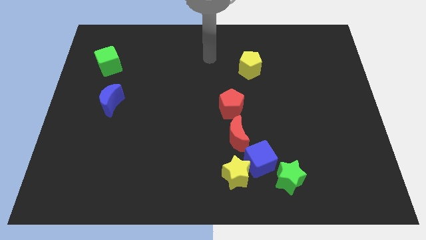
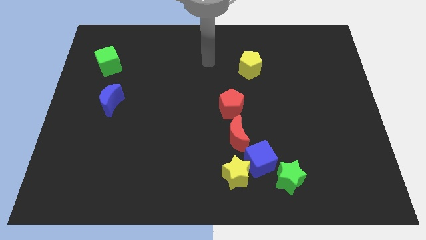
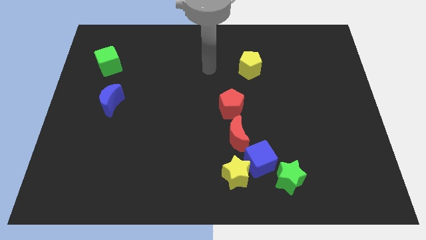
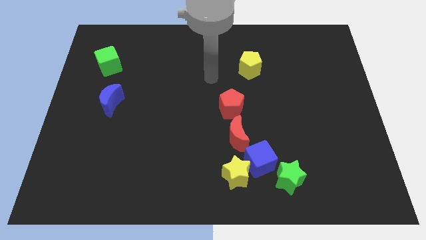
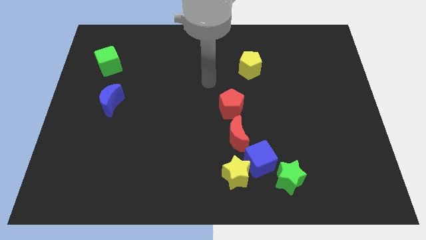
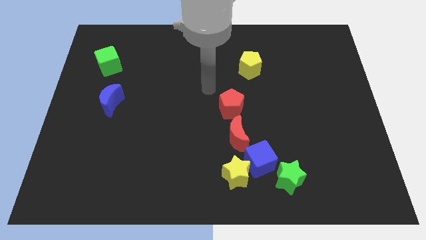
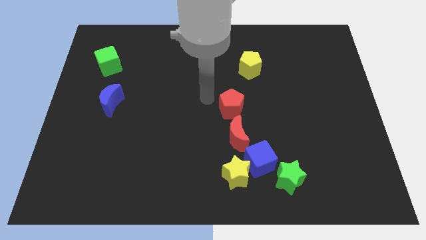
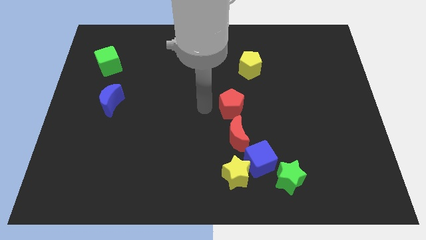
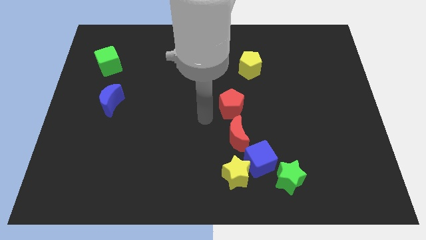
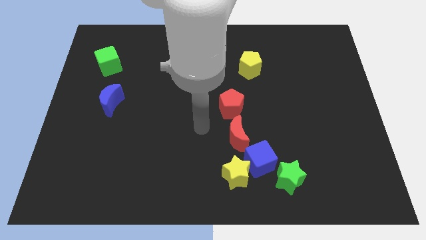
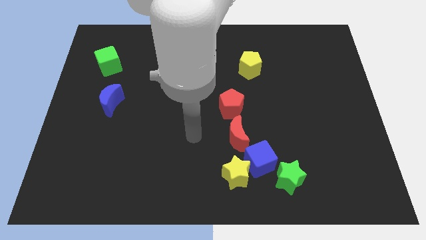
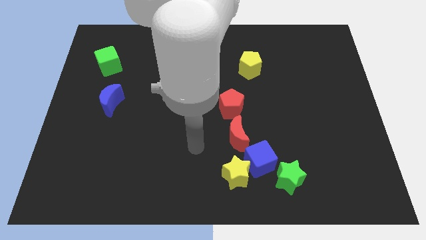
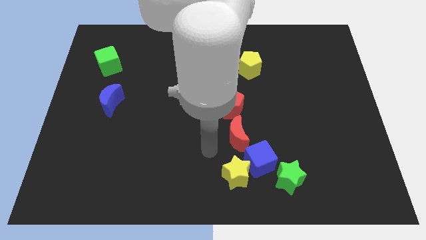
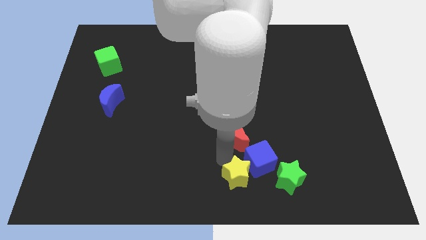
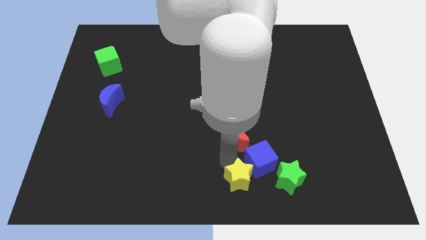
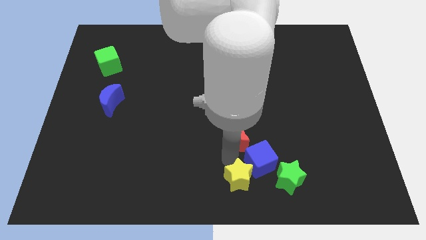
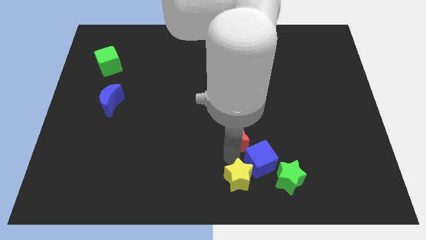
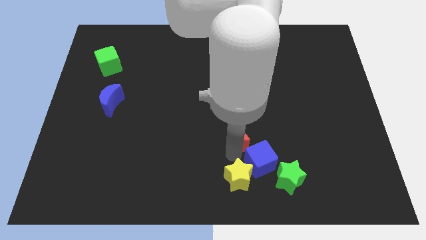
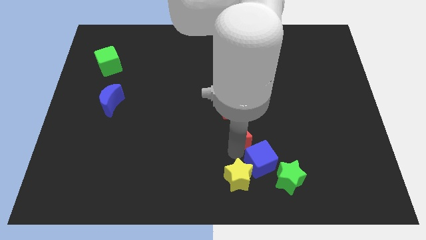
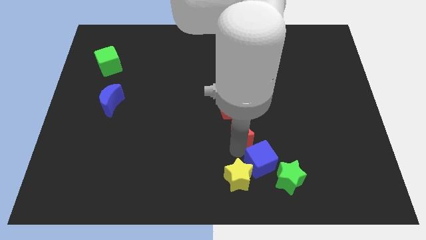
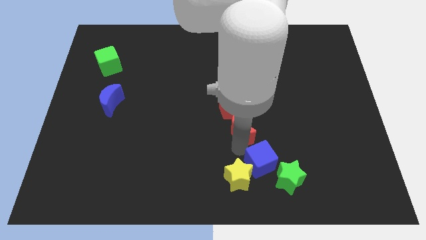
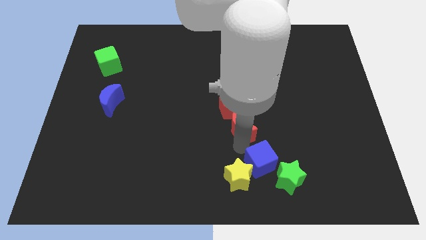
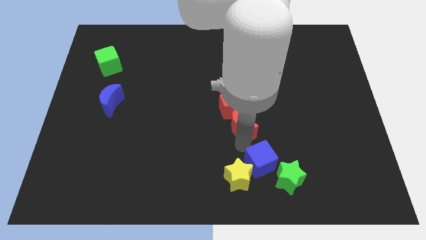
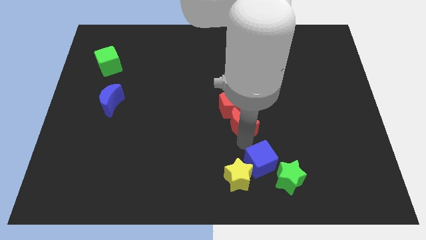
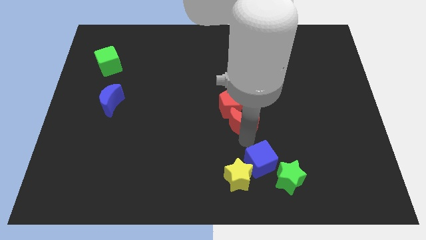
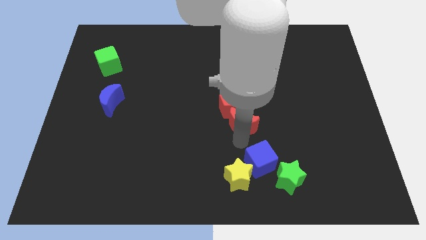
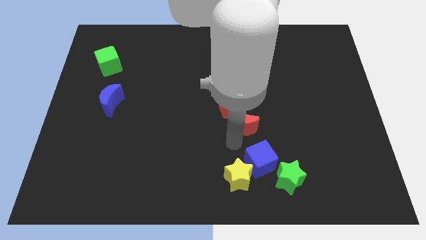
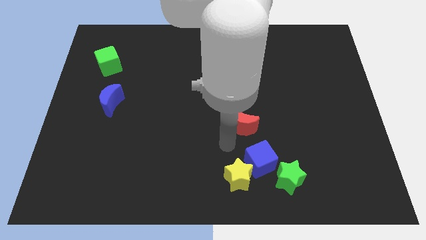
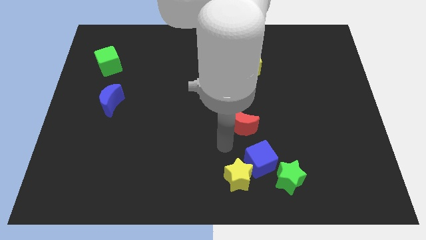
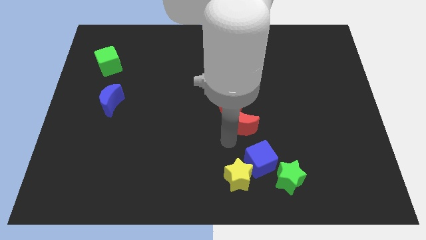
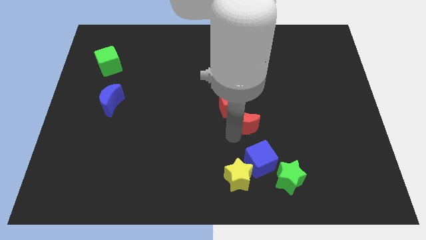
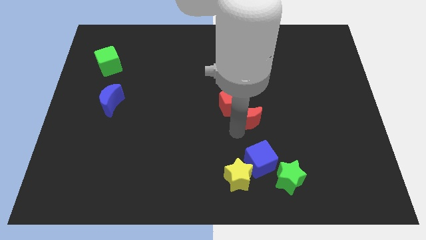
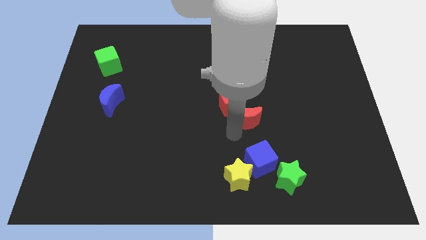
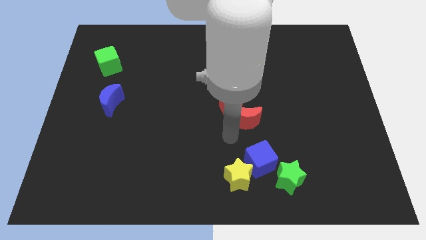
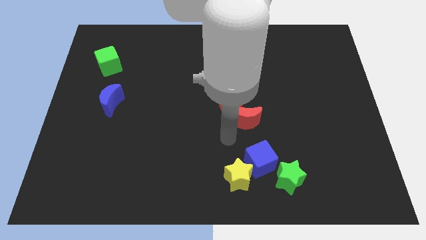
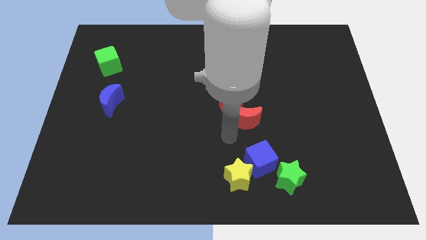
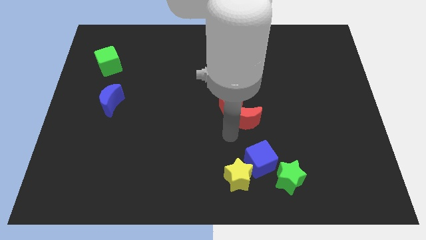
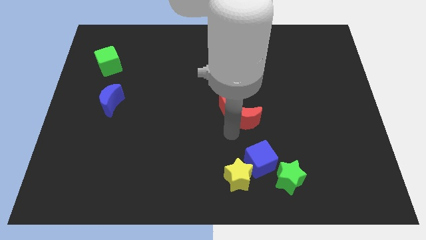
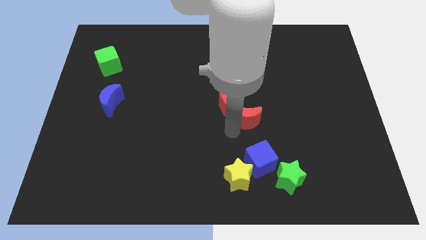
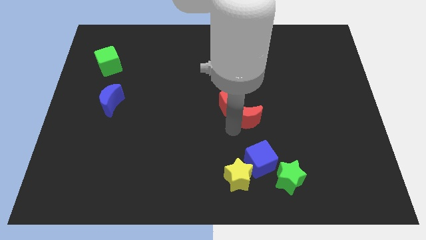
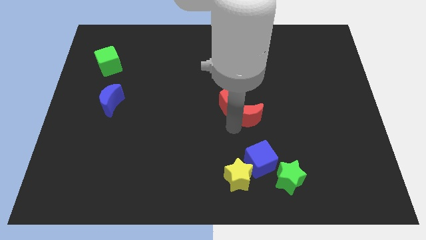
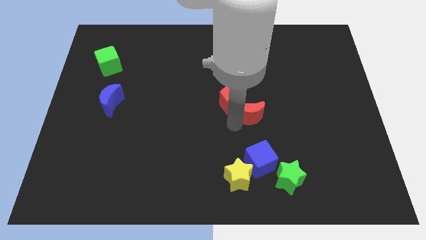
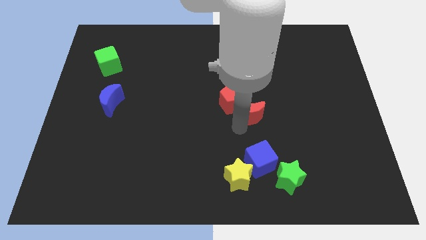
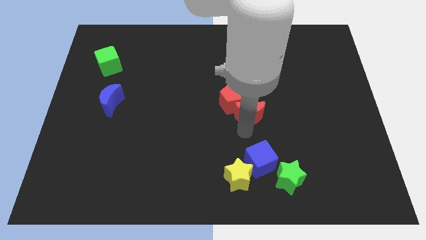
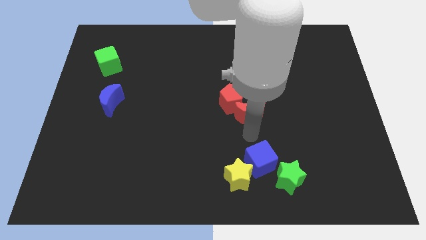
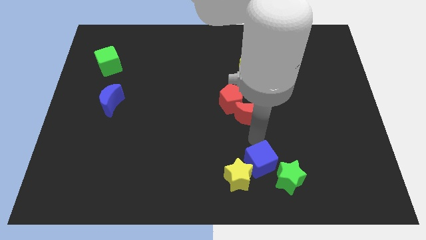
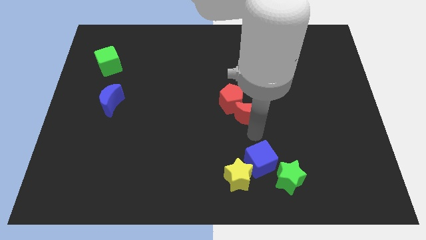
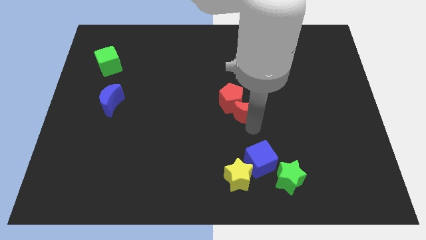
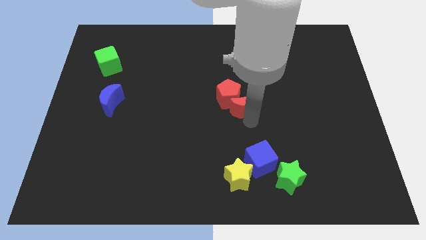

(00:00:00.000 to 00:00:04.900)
push the red moon upwards slightly

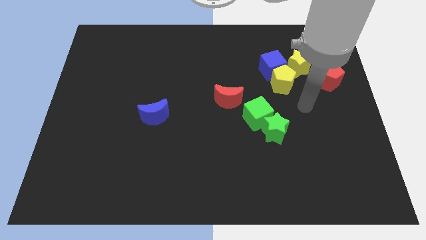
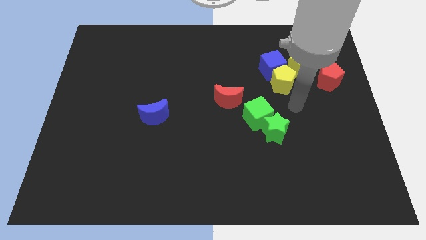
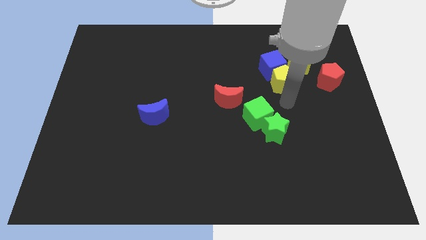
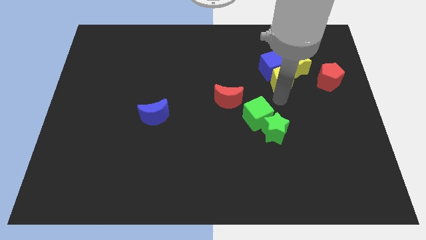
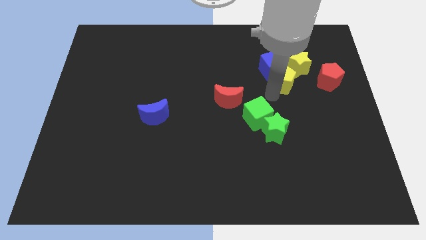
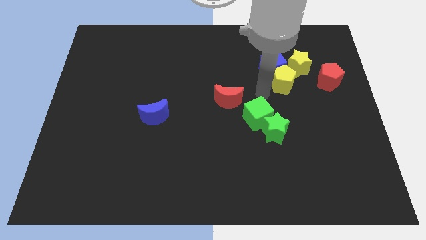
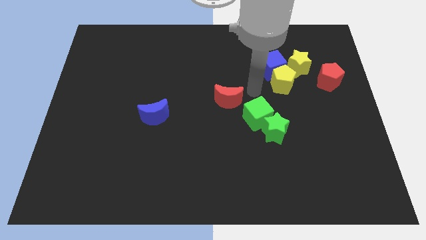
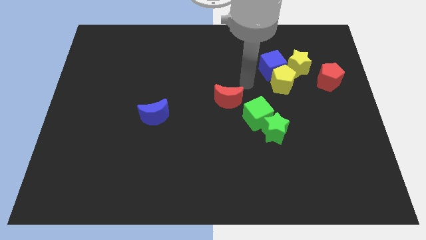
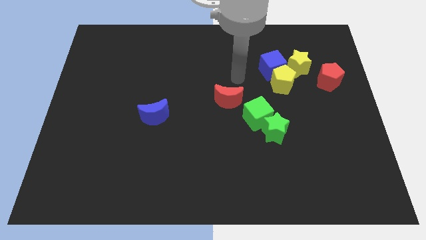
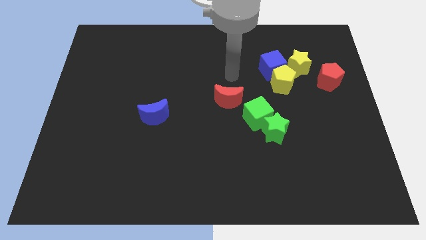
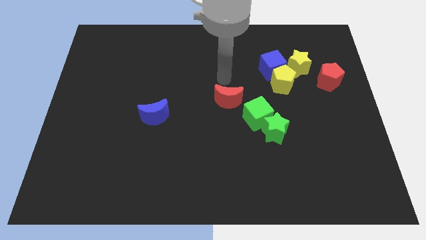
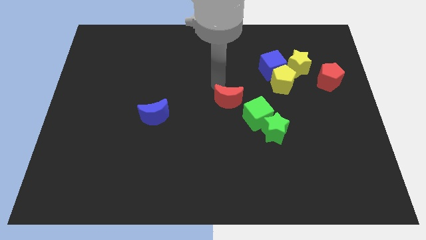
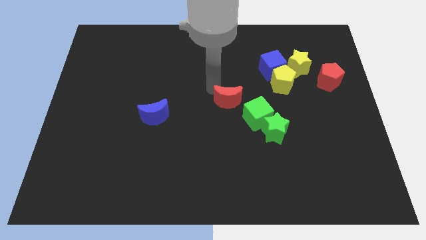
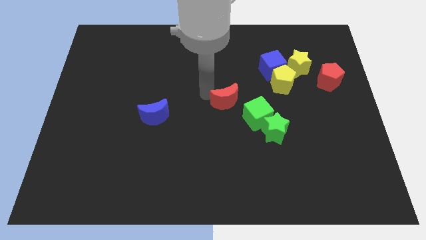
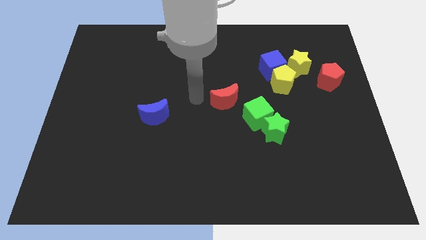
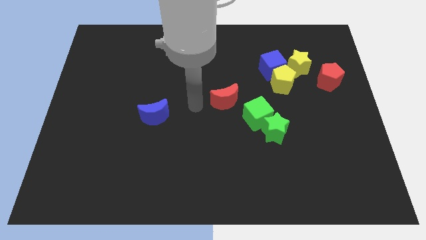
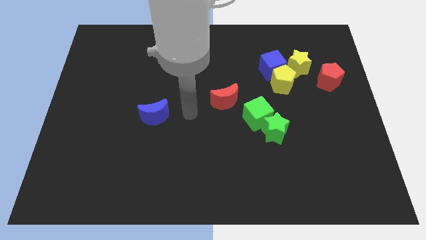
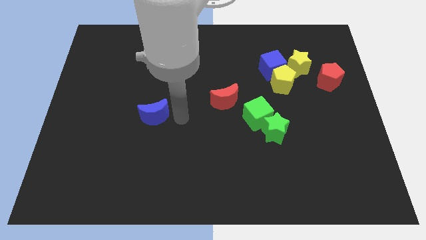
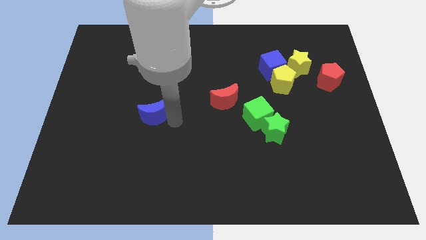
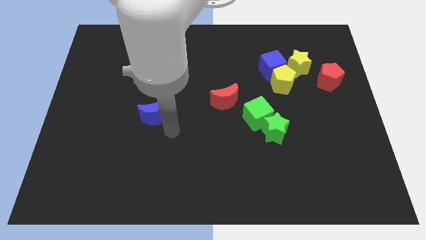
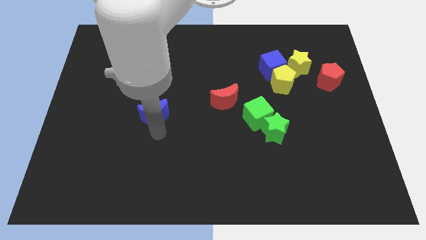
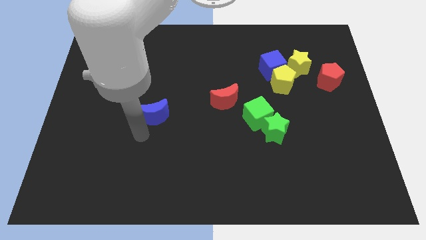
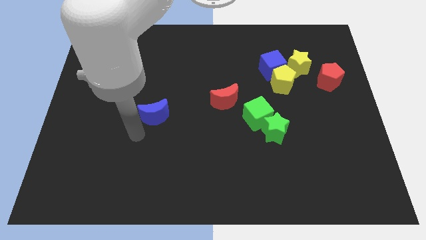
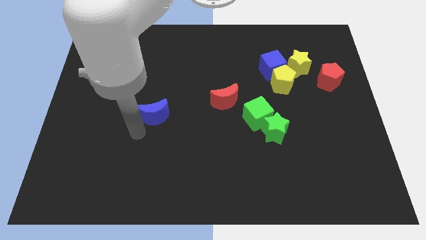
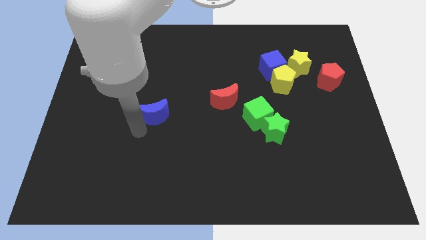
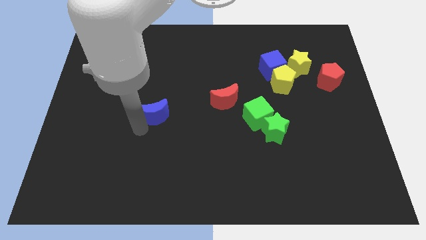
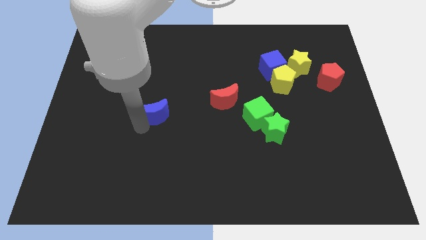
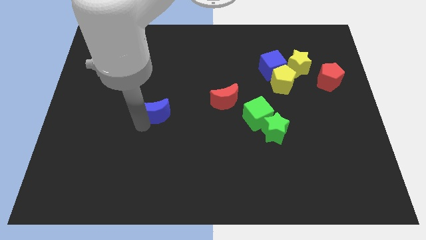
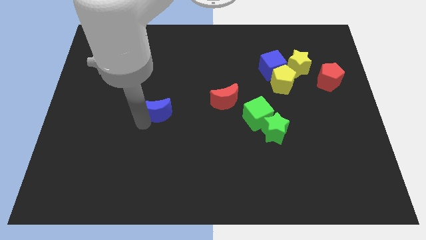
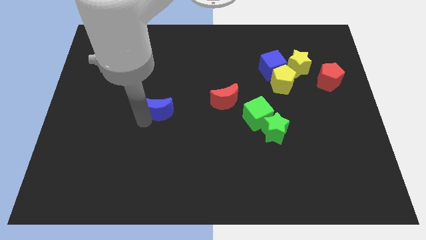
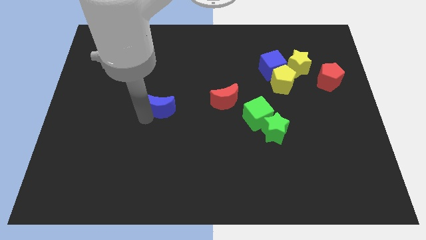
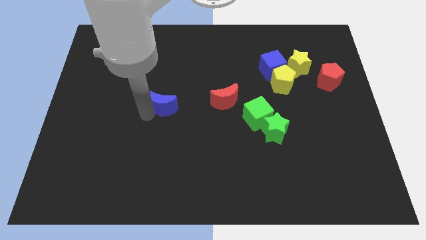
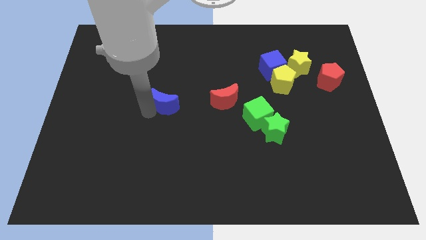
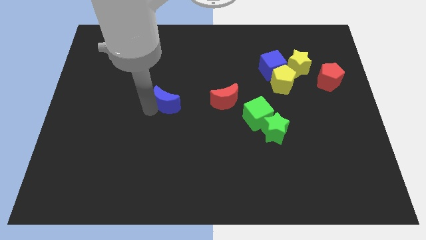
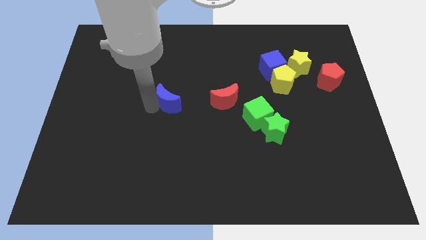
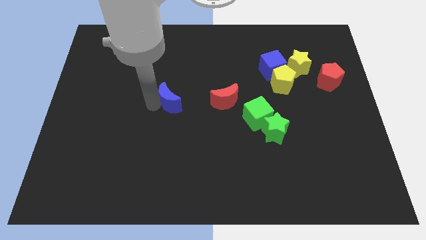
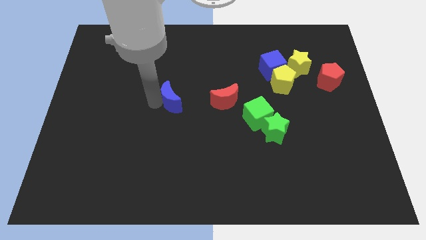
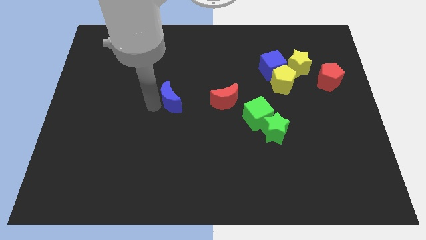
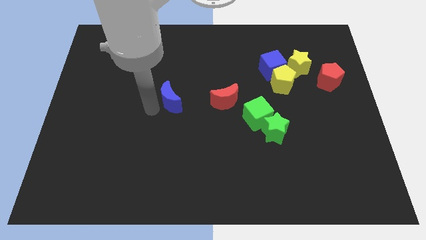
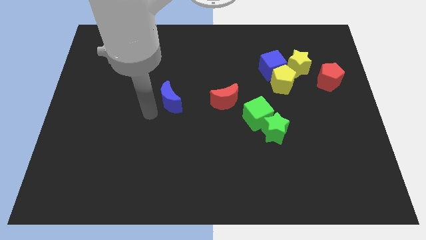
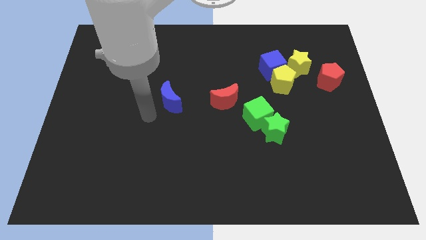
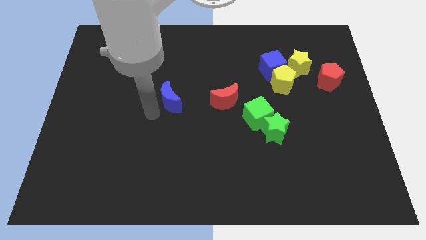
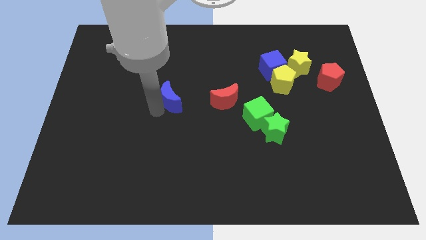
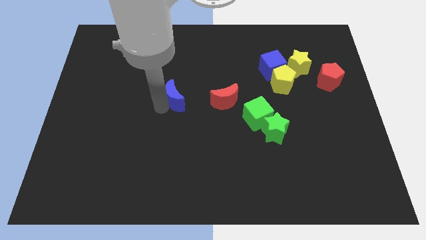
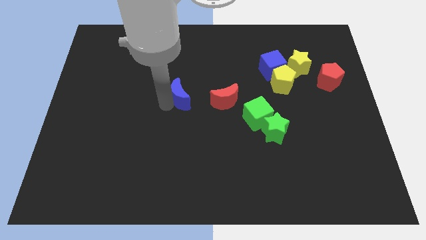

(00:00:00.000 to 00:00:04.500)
slightly push the blue moon up and right diagonally
